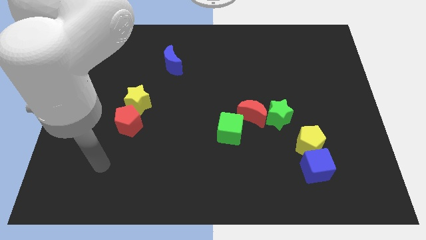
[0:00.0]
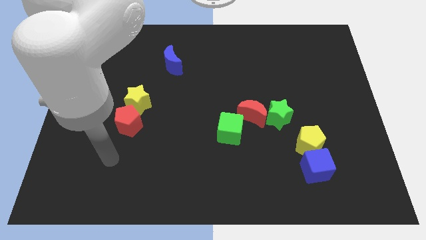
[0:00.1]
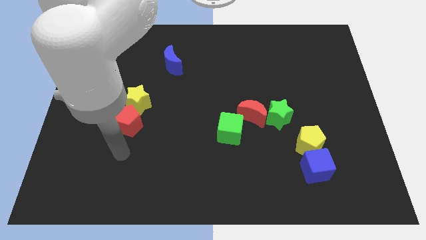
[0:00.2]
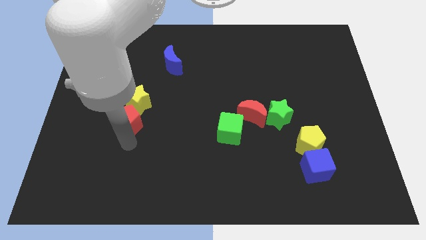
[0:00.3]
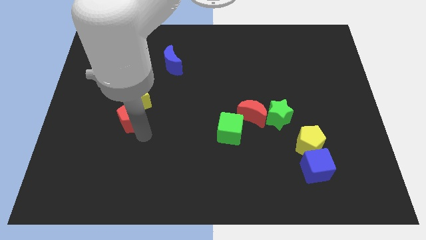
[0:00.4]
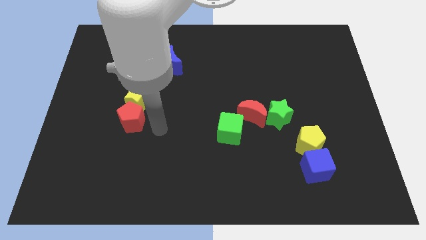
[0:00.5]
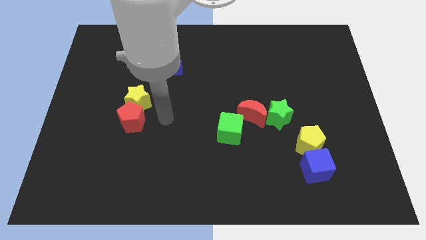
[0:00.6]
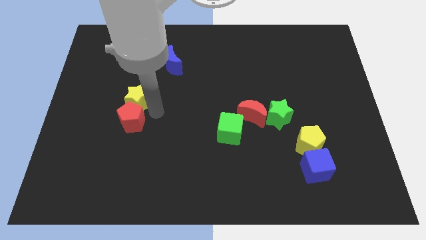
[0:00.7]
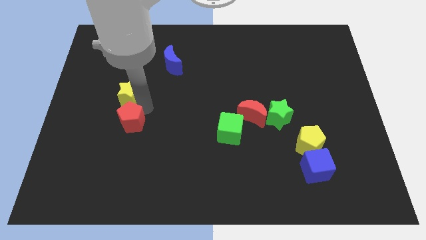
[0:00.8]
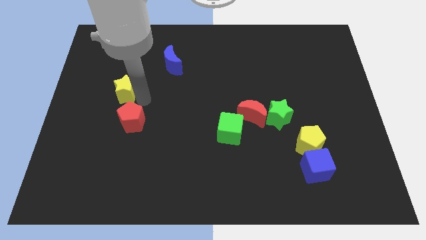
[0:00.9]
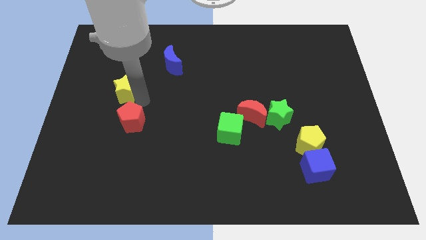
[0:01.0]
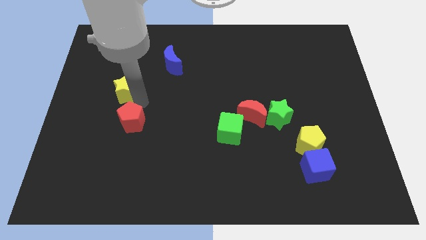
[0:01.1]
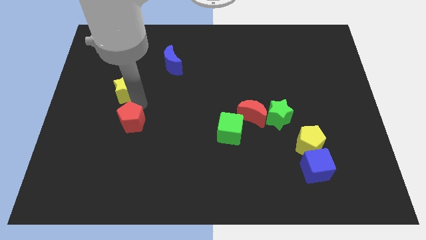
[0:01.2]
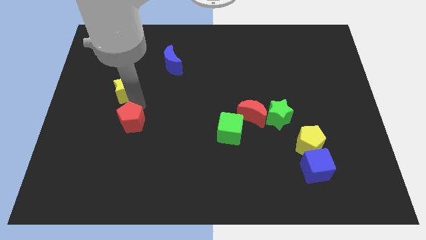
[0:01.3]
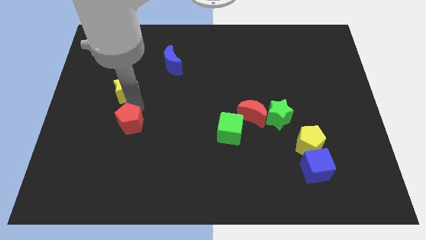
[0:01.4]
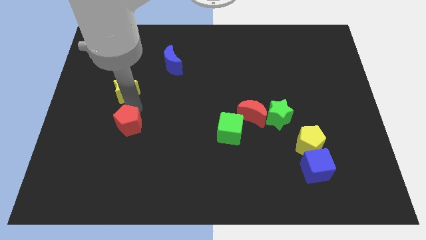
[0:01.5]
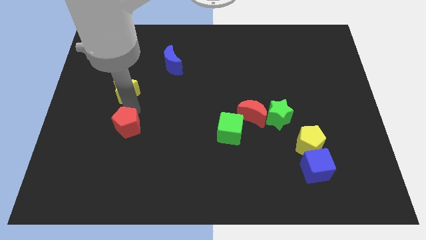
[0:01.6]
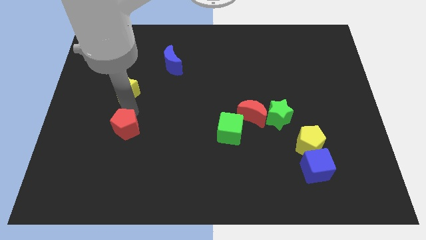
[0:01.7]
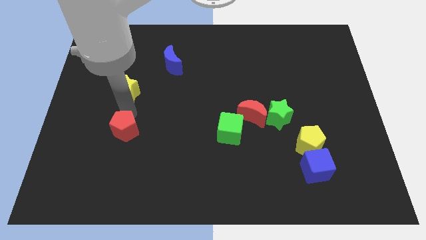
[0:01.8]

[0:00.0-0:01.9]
move the red pentagon away from the yellow star

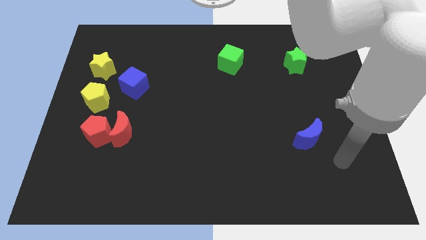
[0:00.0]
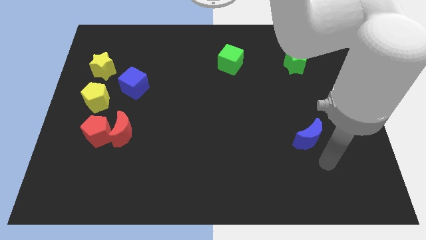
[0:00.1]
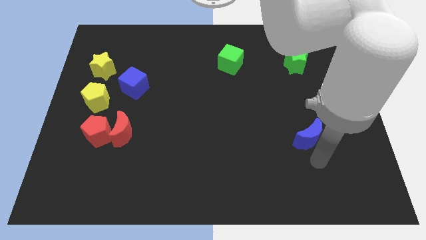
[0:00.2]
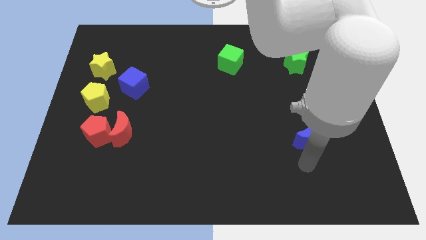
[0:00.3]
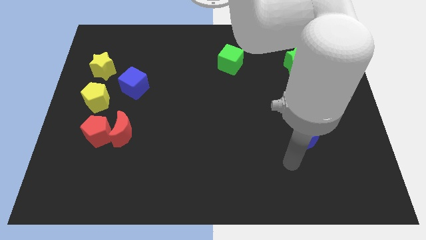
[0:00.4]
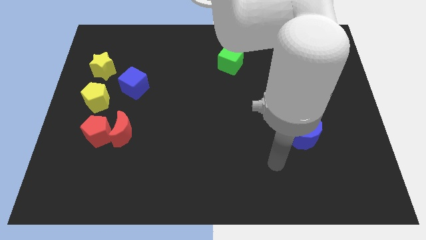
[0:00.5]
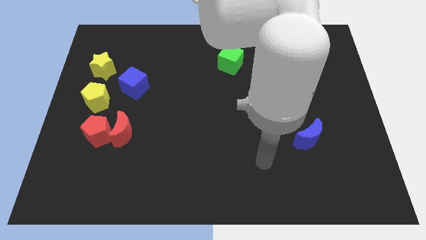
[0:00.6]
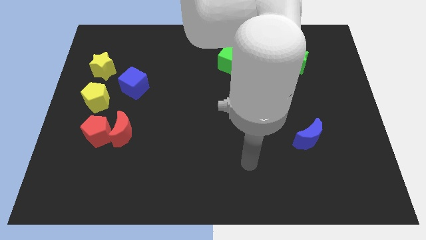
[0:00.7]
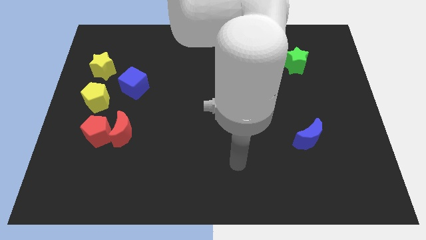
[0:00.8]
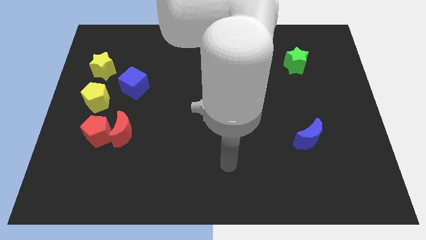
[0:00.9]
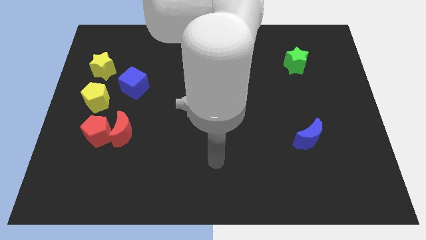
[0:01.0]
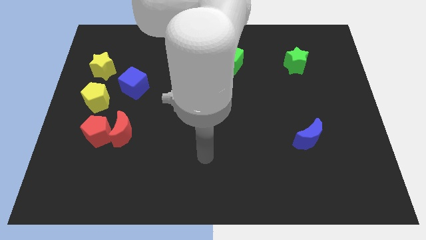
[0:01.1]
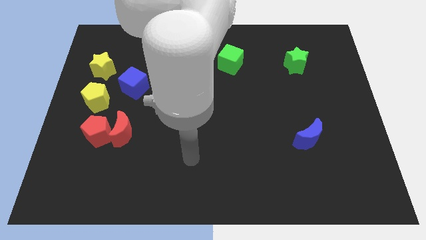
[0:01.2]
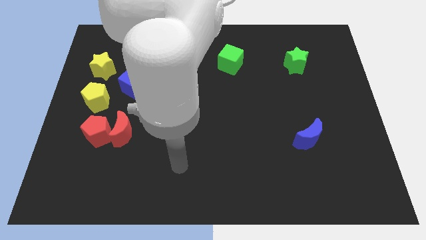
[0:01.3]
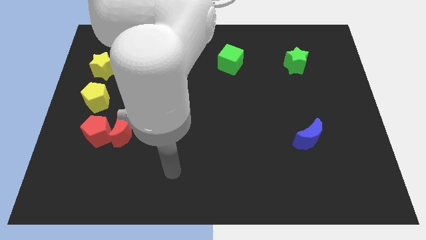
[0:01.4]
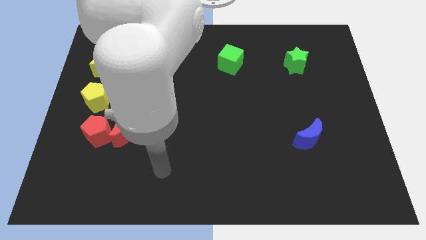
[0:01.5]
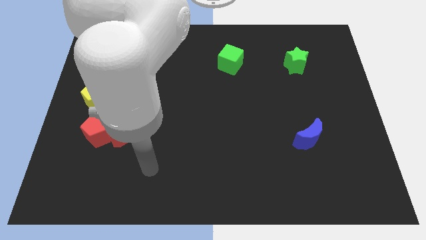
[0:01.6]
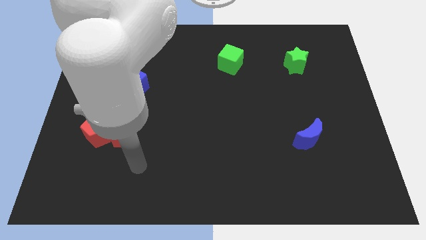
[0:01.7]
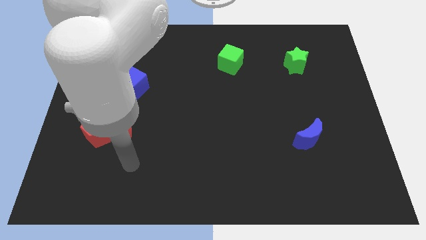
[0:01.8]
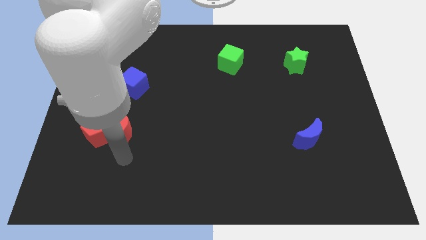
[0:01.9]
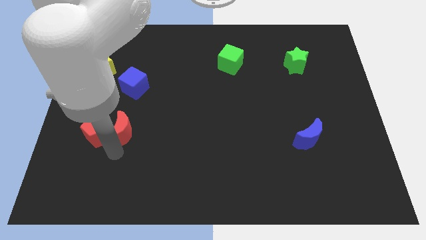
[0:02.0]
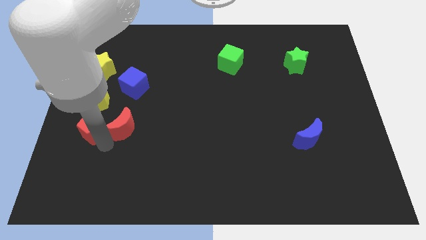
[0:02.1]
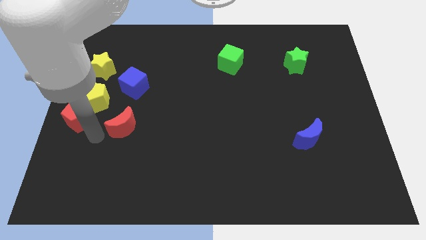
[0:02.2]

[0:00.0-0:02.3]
move the red moon away from the red pentagon

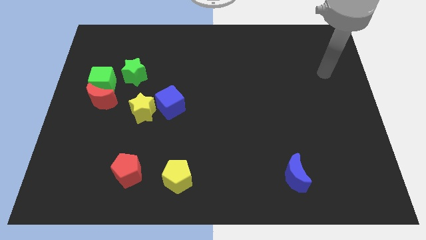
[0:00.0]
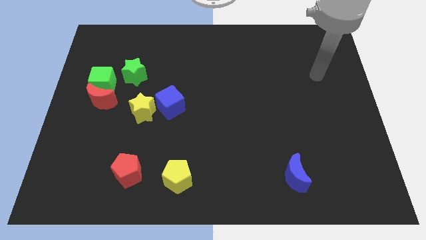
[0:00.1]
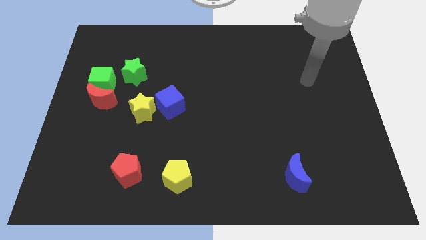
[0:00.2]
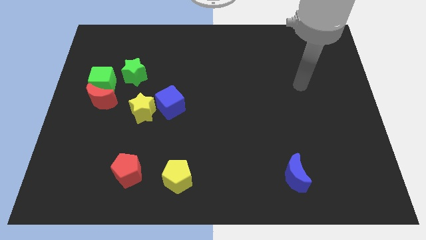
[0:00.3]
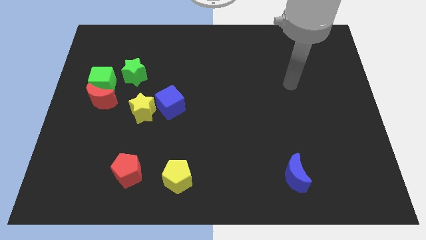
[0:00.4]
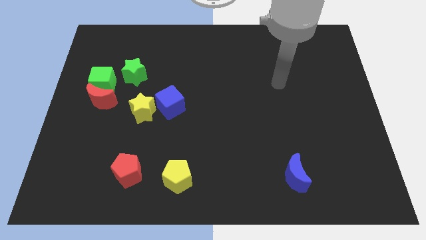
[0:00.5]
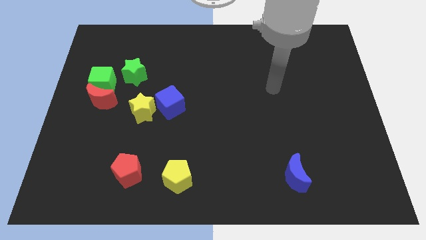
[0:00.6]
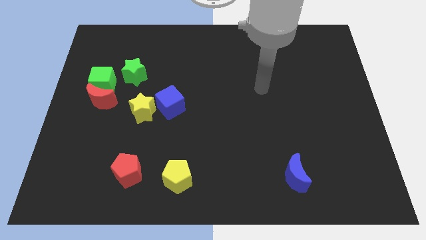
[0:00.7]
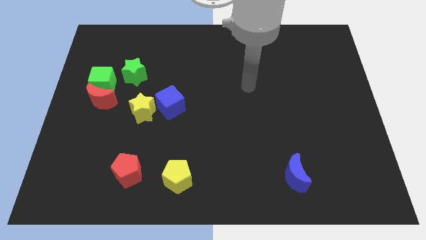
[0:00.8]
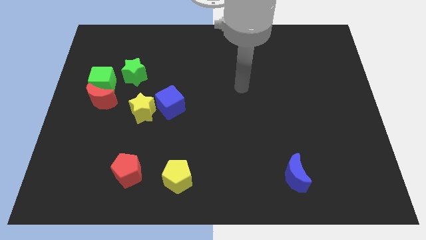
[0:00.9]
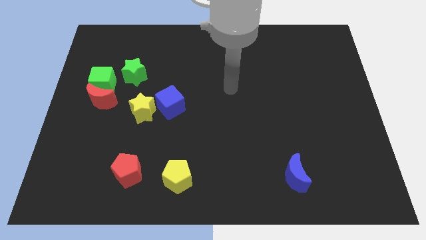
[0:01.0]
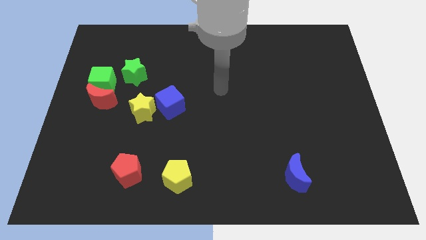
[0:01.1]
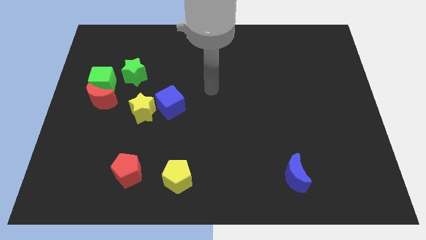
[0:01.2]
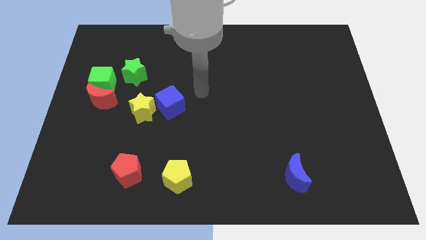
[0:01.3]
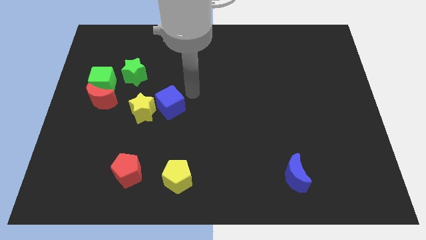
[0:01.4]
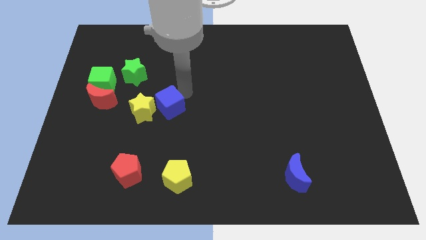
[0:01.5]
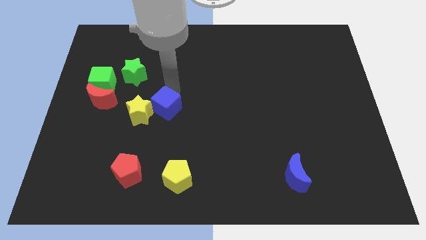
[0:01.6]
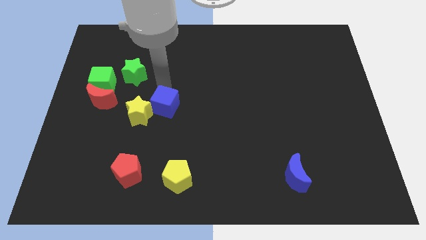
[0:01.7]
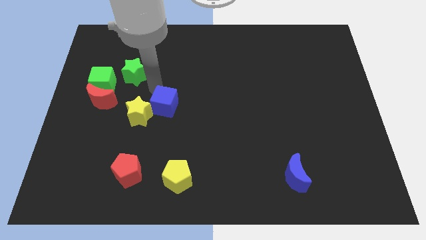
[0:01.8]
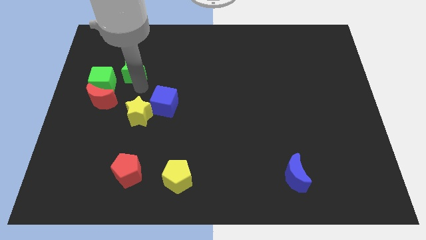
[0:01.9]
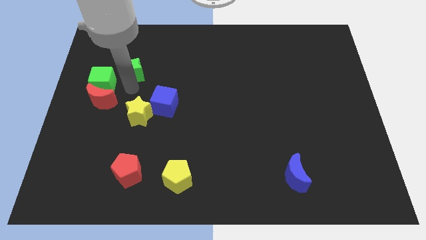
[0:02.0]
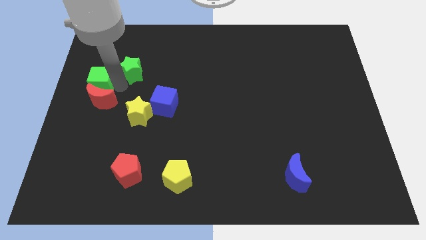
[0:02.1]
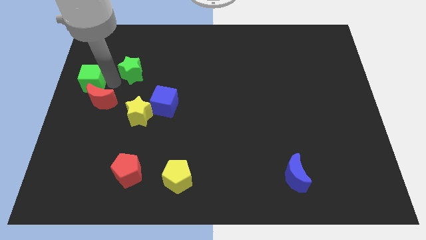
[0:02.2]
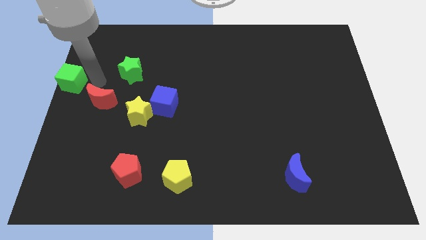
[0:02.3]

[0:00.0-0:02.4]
move the red moon away from the green cube

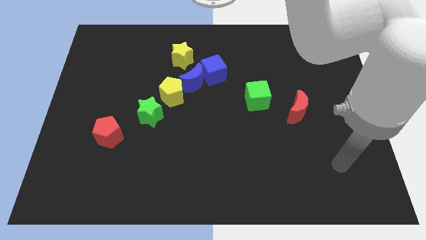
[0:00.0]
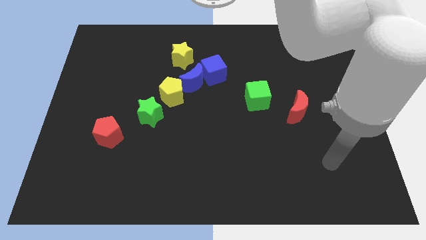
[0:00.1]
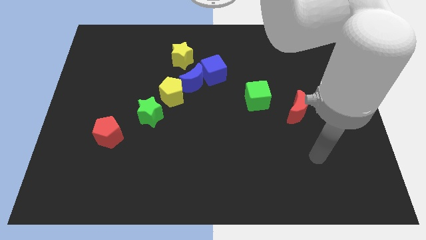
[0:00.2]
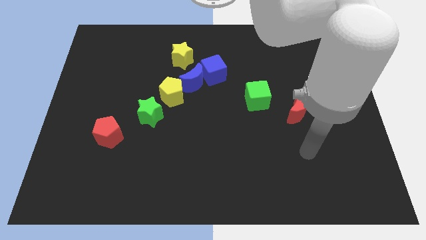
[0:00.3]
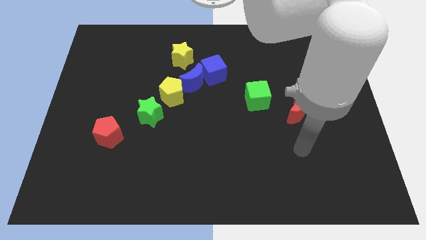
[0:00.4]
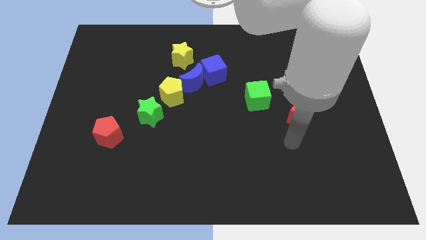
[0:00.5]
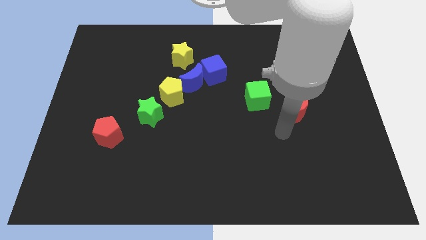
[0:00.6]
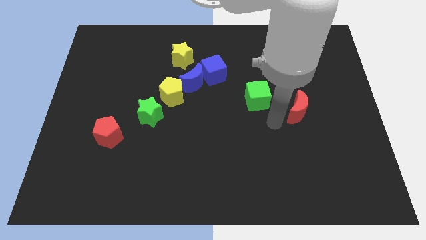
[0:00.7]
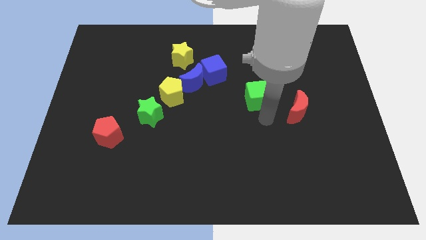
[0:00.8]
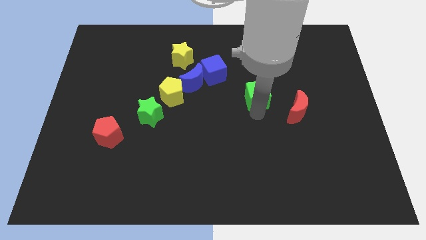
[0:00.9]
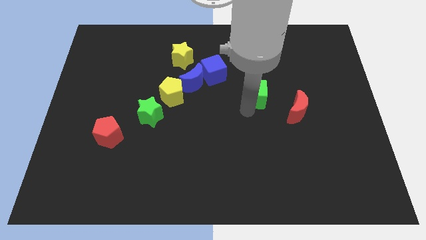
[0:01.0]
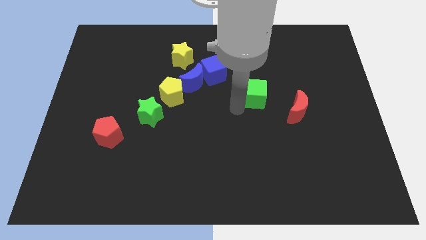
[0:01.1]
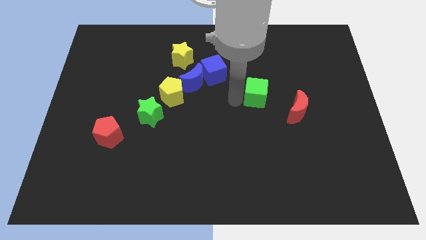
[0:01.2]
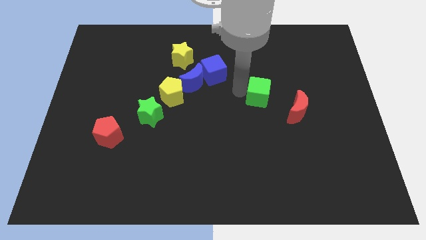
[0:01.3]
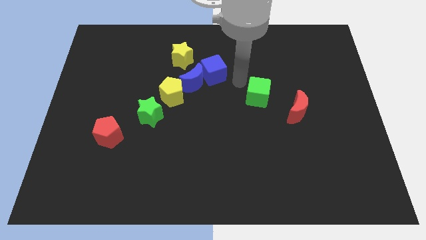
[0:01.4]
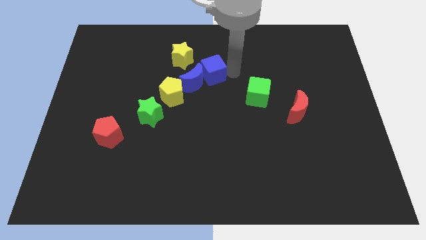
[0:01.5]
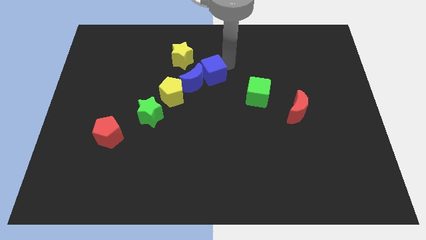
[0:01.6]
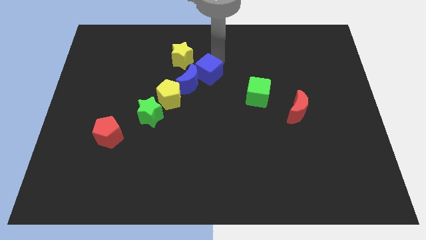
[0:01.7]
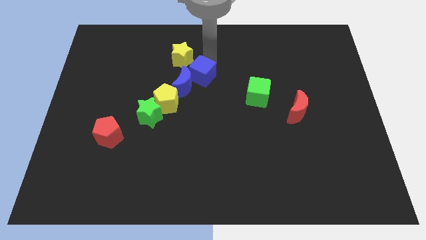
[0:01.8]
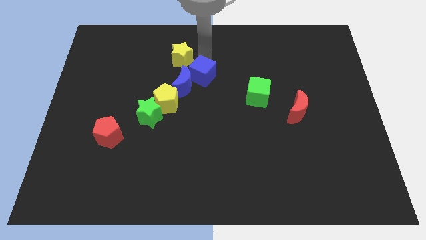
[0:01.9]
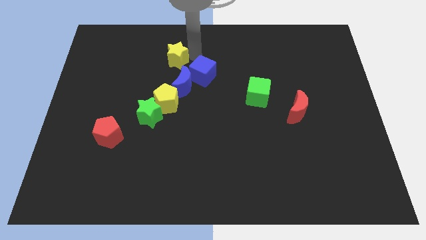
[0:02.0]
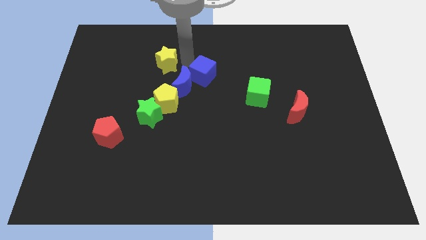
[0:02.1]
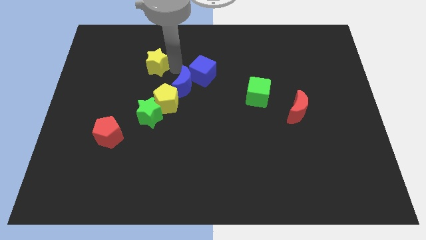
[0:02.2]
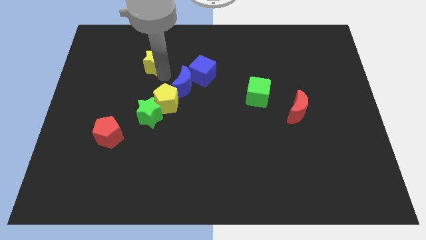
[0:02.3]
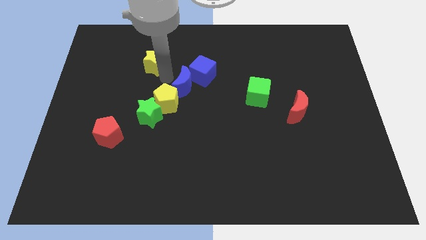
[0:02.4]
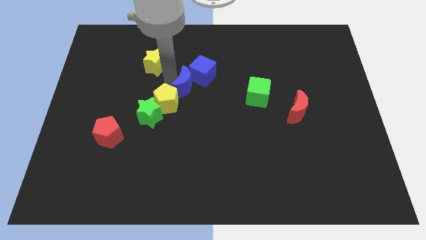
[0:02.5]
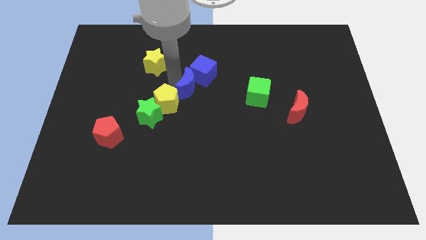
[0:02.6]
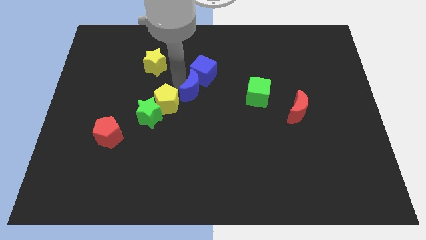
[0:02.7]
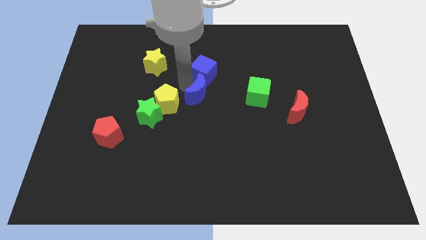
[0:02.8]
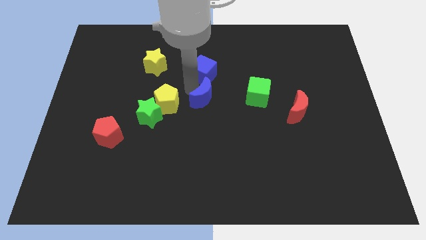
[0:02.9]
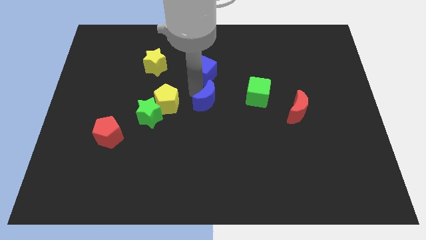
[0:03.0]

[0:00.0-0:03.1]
separate the blue moon from the group
